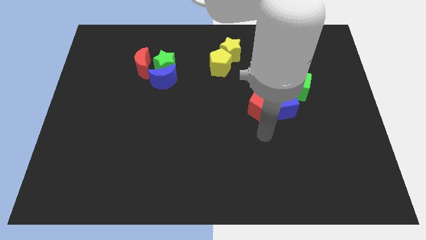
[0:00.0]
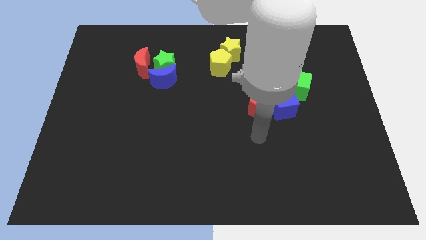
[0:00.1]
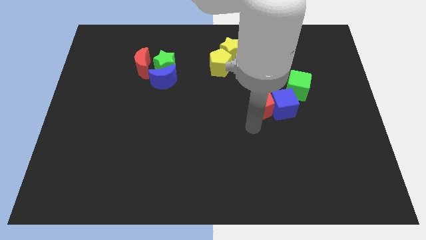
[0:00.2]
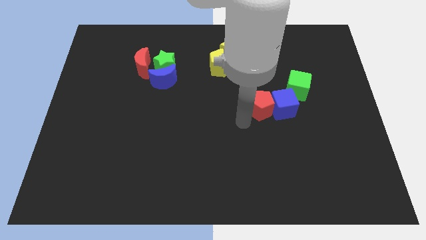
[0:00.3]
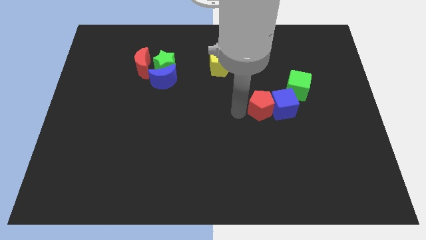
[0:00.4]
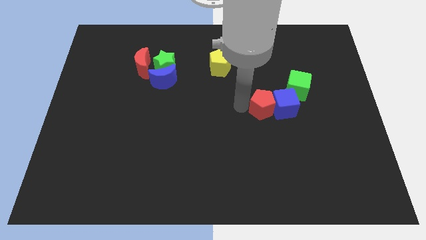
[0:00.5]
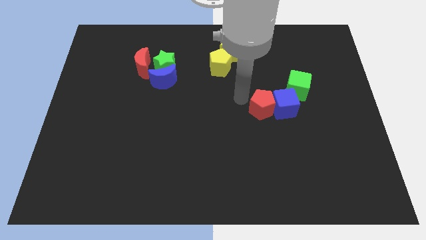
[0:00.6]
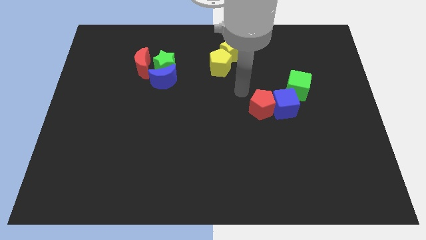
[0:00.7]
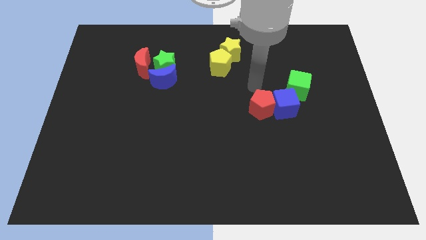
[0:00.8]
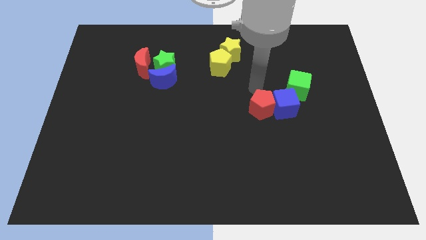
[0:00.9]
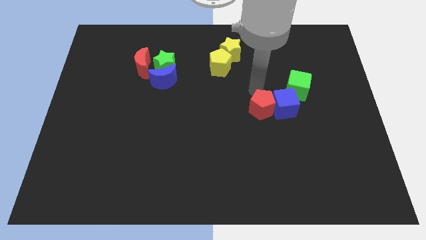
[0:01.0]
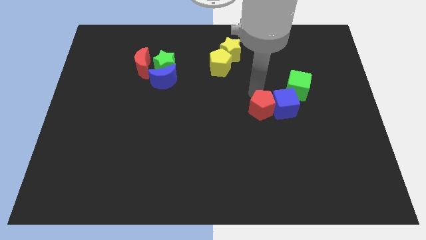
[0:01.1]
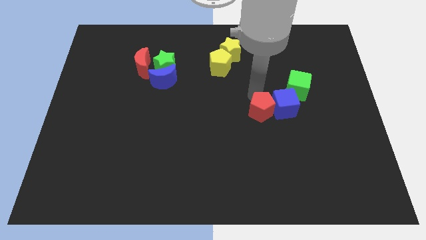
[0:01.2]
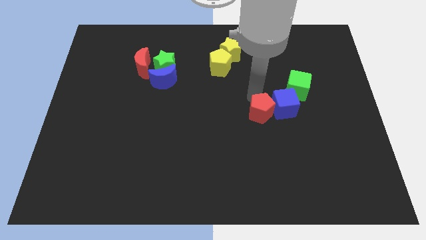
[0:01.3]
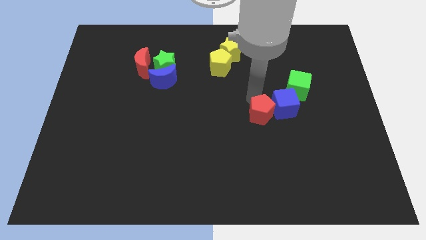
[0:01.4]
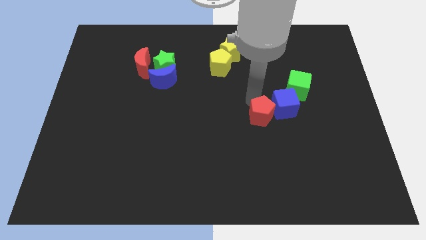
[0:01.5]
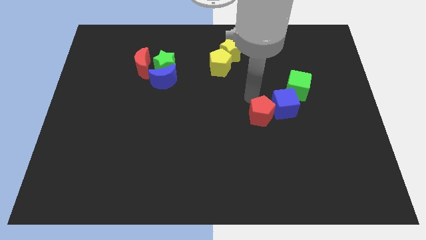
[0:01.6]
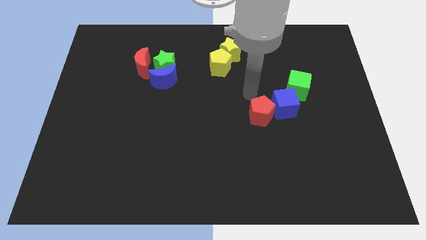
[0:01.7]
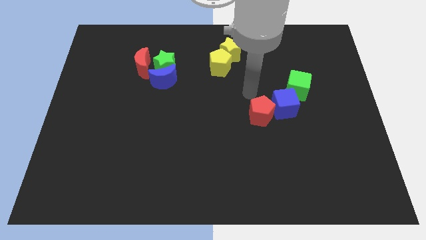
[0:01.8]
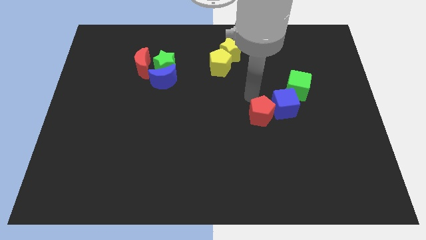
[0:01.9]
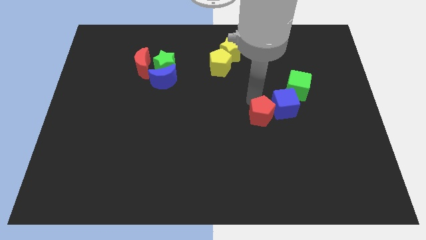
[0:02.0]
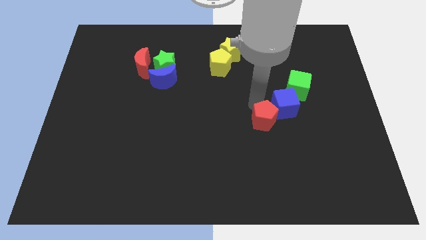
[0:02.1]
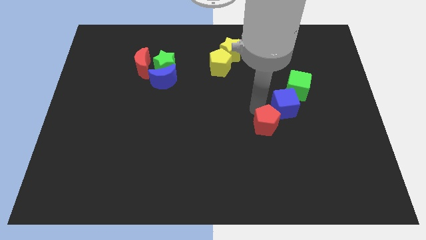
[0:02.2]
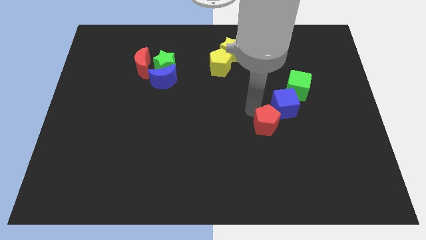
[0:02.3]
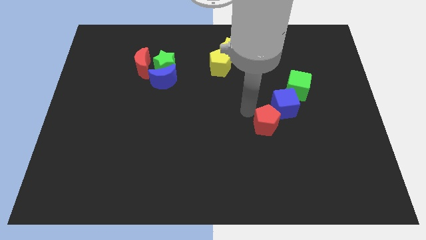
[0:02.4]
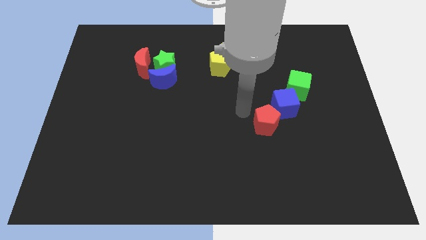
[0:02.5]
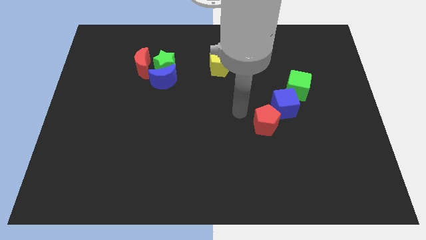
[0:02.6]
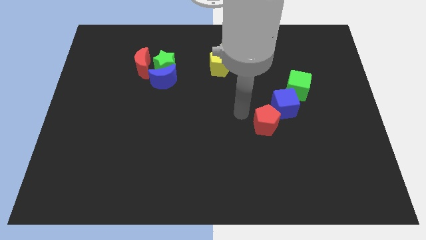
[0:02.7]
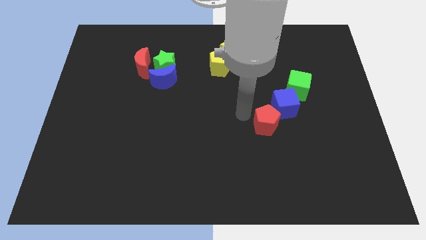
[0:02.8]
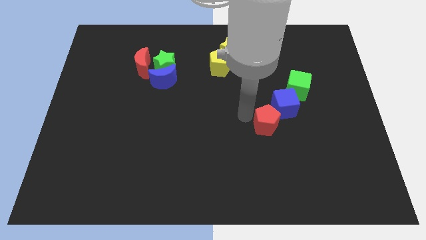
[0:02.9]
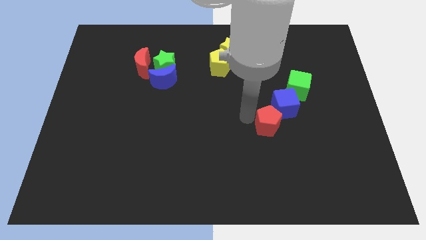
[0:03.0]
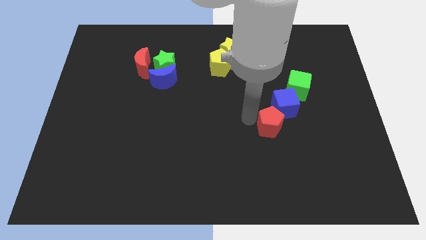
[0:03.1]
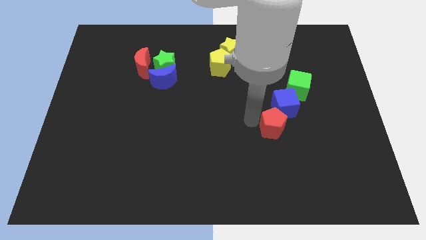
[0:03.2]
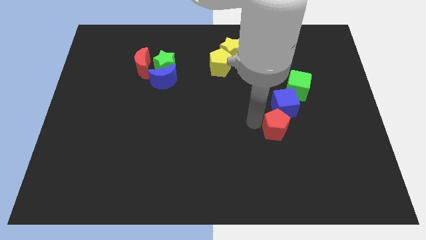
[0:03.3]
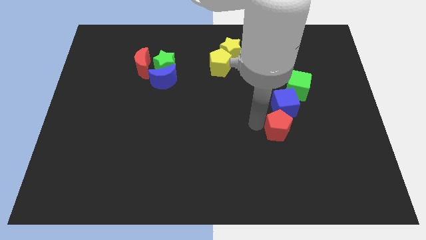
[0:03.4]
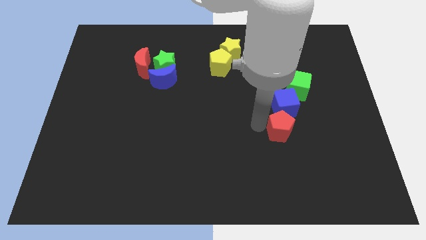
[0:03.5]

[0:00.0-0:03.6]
slightly slide the red pentagon downwards and to the right diagonally

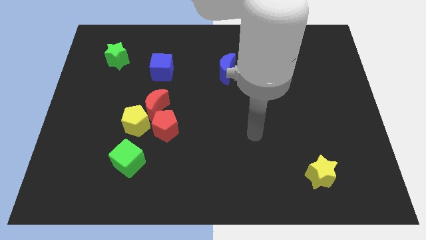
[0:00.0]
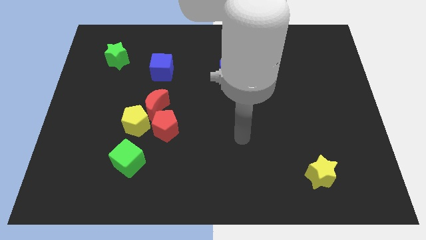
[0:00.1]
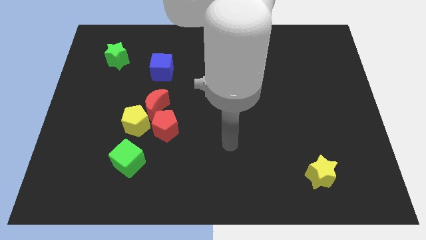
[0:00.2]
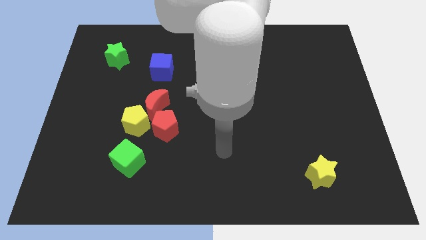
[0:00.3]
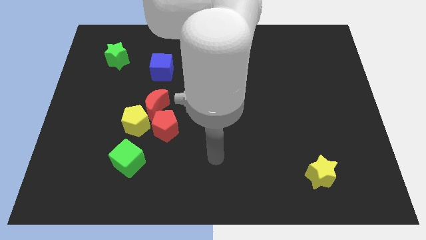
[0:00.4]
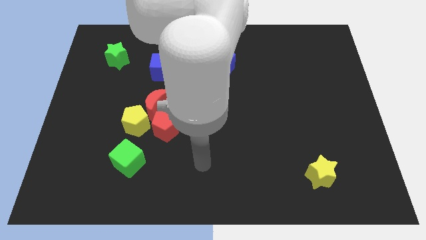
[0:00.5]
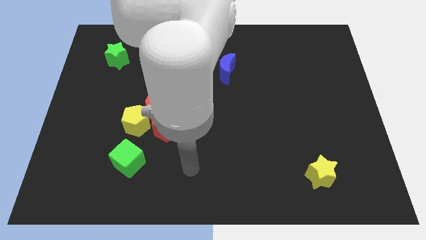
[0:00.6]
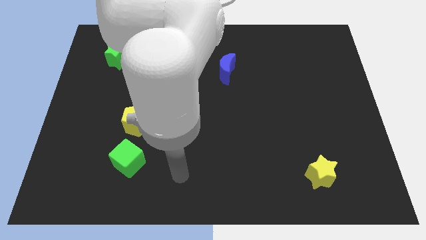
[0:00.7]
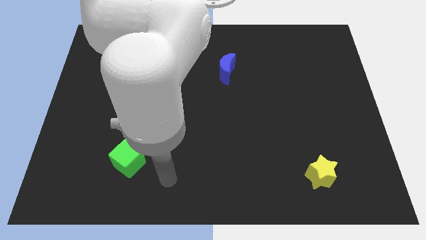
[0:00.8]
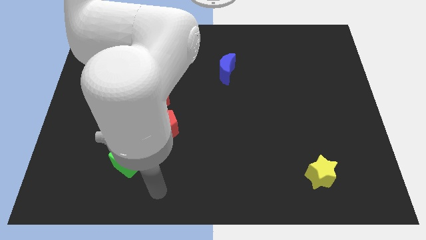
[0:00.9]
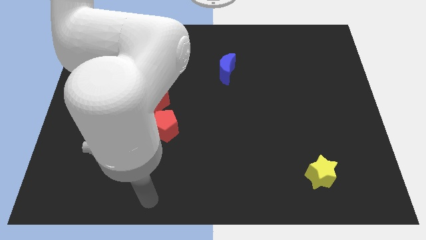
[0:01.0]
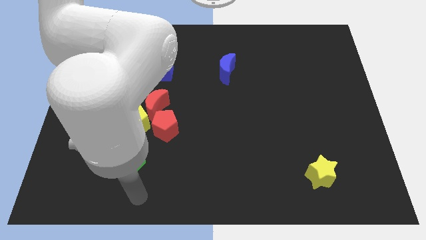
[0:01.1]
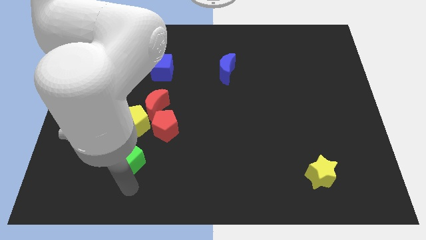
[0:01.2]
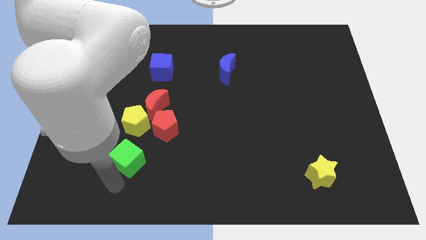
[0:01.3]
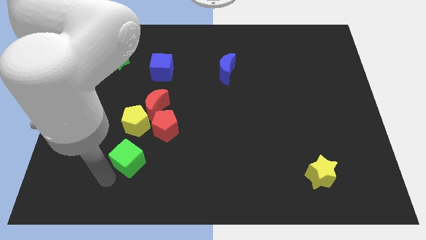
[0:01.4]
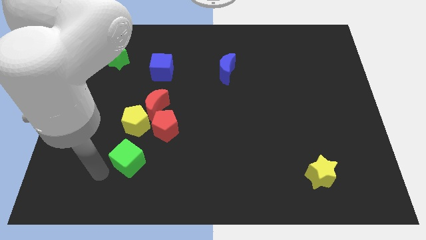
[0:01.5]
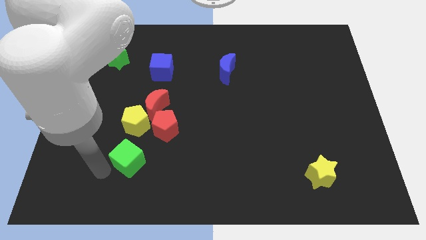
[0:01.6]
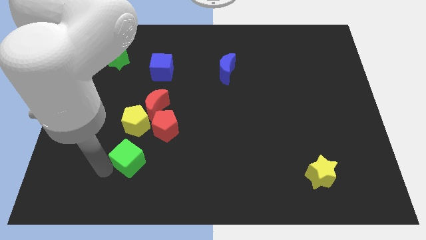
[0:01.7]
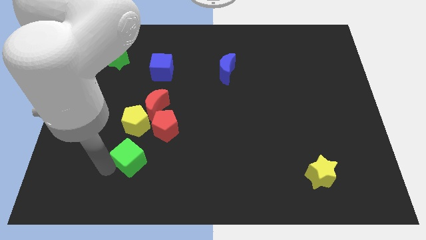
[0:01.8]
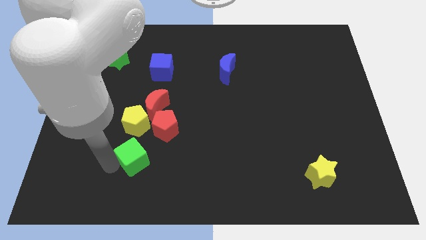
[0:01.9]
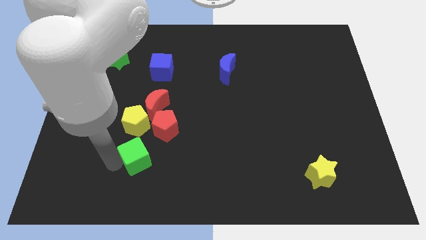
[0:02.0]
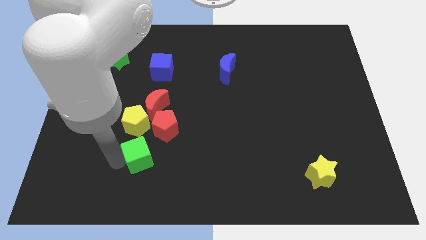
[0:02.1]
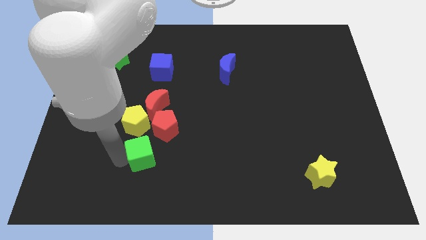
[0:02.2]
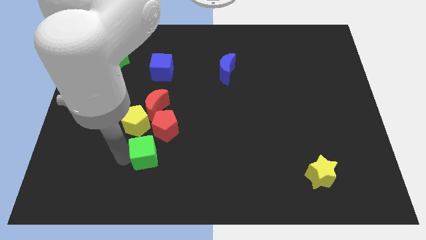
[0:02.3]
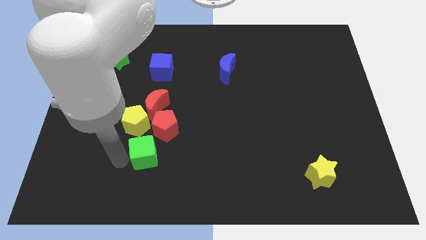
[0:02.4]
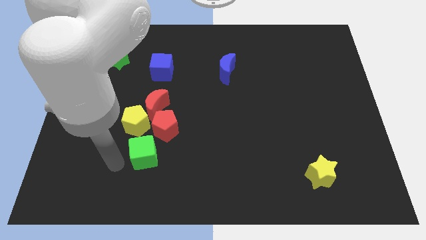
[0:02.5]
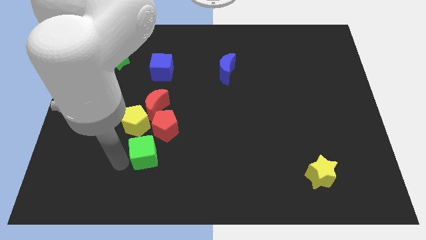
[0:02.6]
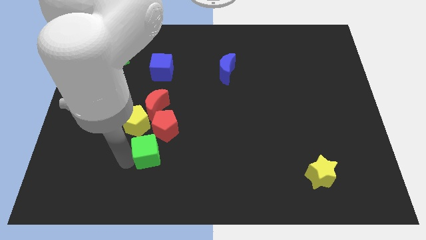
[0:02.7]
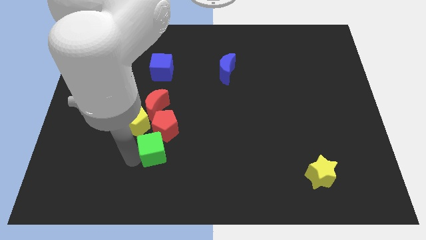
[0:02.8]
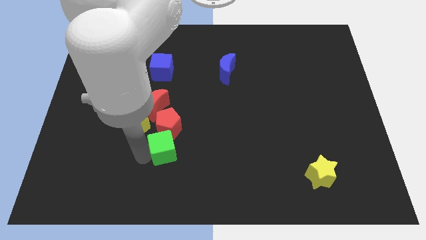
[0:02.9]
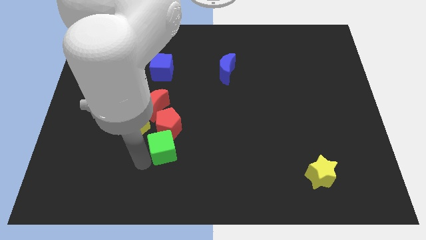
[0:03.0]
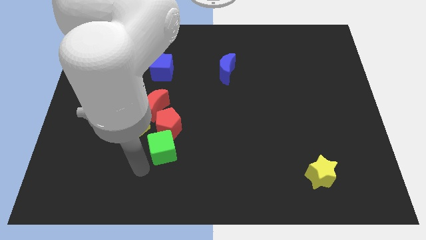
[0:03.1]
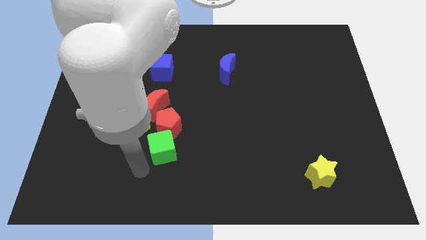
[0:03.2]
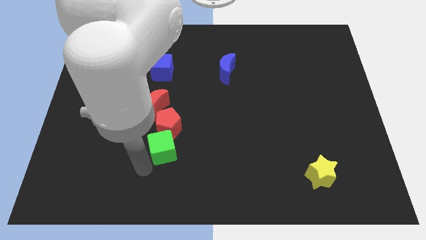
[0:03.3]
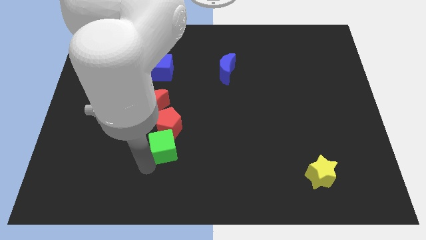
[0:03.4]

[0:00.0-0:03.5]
push the green cube upwards and to the right slightly

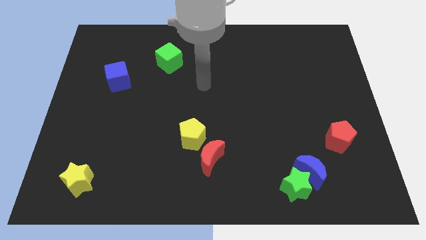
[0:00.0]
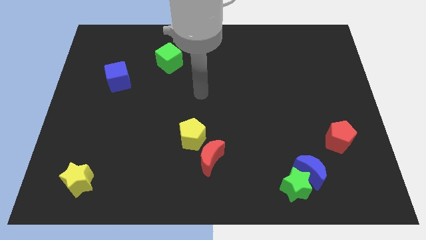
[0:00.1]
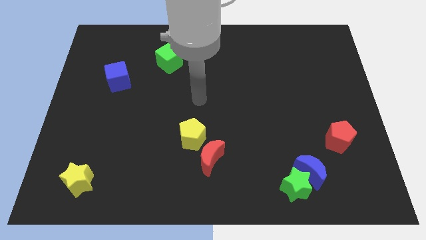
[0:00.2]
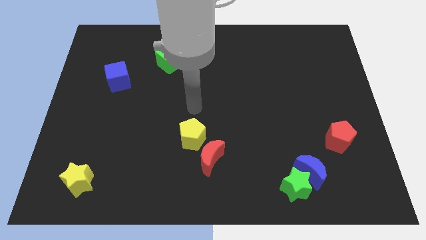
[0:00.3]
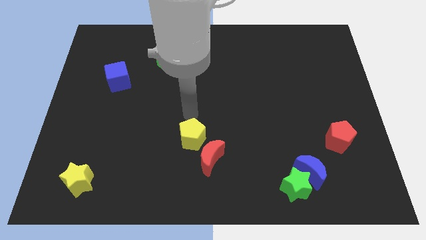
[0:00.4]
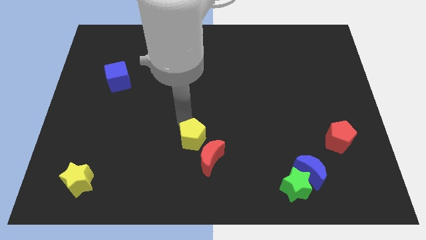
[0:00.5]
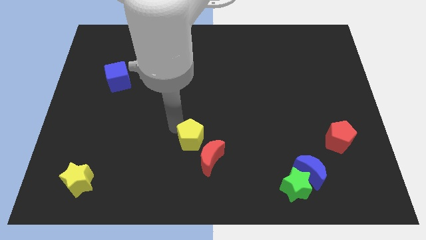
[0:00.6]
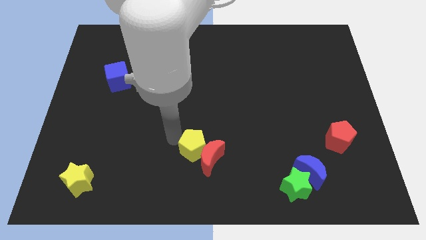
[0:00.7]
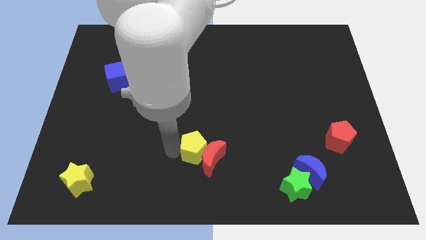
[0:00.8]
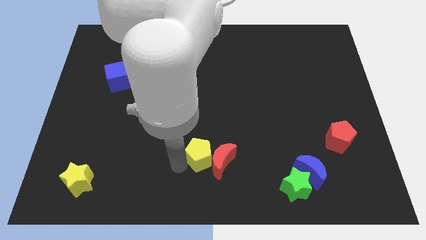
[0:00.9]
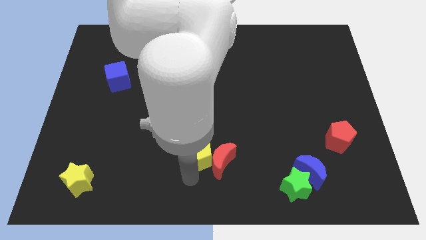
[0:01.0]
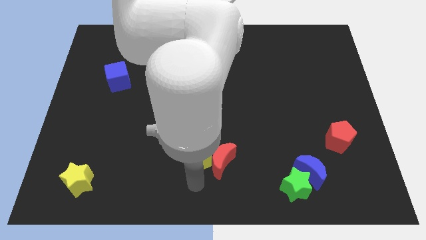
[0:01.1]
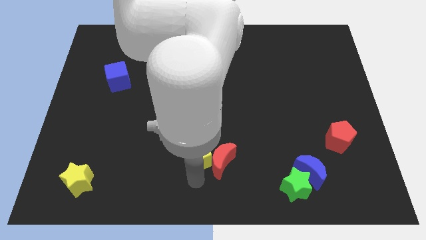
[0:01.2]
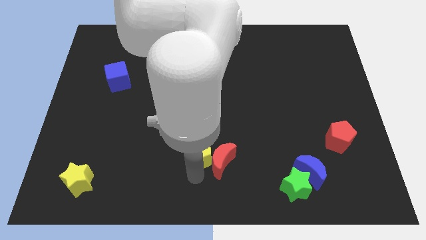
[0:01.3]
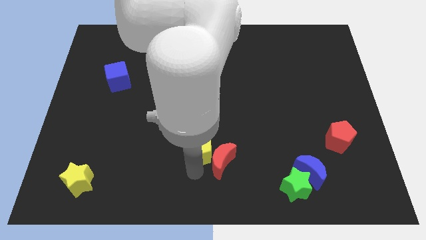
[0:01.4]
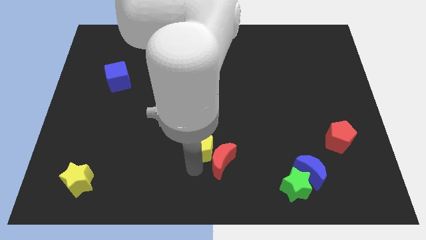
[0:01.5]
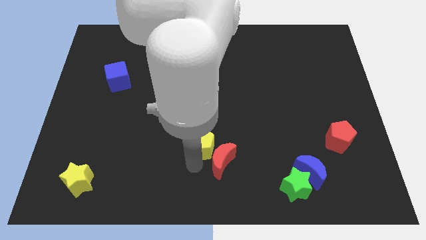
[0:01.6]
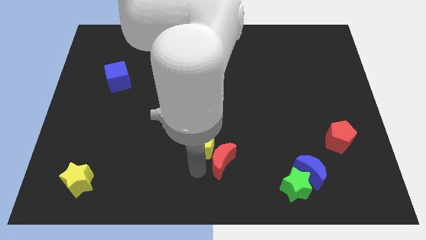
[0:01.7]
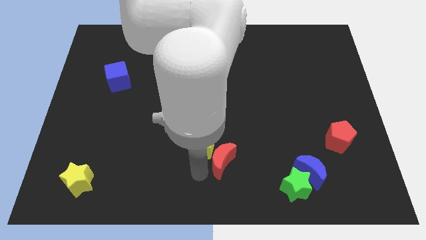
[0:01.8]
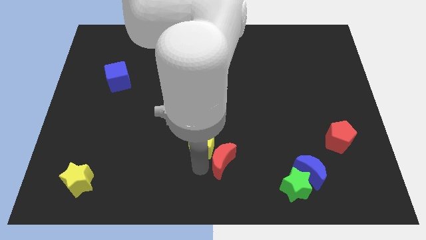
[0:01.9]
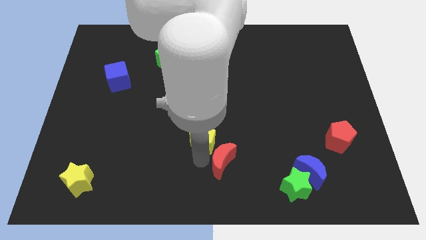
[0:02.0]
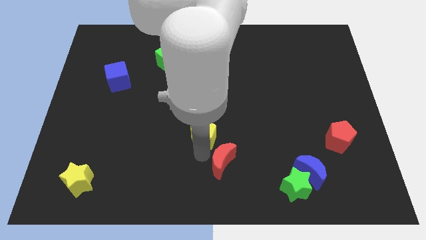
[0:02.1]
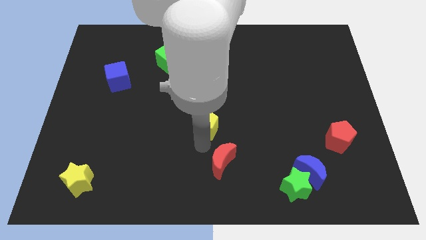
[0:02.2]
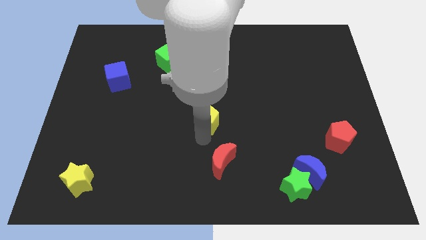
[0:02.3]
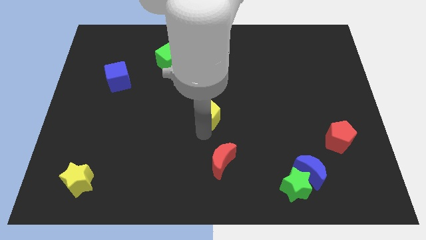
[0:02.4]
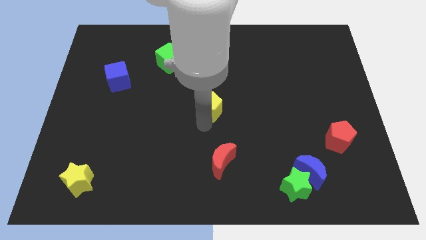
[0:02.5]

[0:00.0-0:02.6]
slide the yellow pentagon a bit diagonally upwards and to the right
